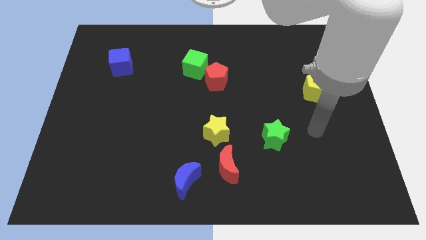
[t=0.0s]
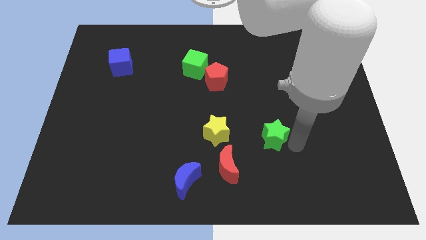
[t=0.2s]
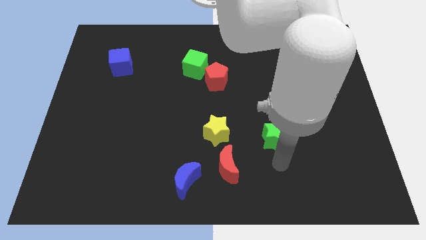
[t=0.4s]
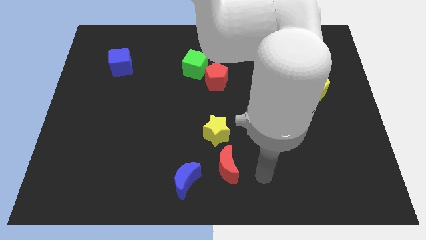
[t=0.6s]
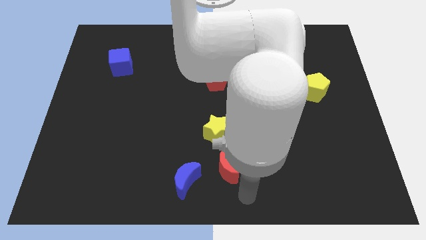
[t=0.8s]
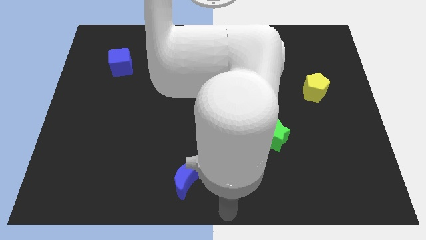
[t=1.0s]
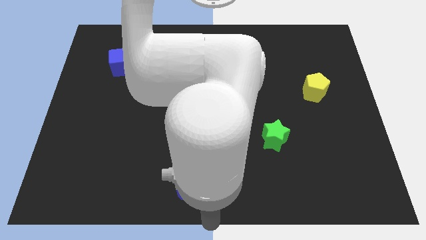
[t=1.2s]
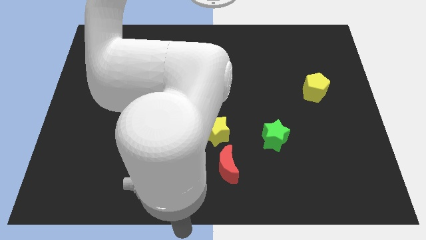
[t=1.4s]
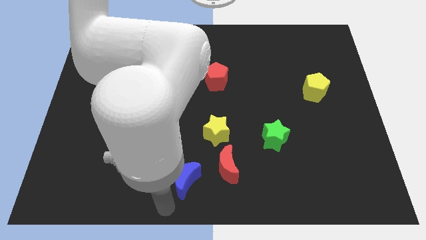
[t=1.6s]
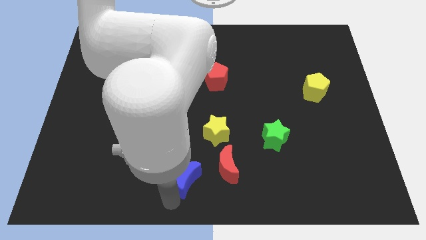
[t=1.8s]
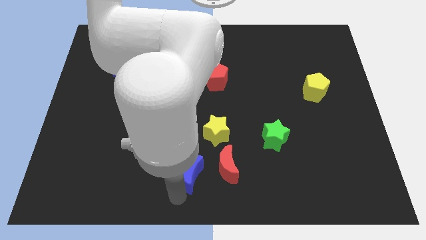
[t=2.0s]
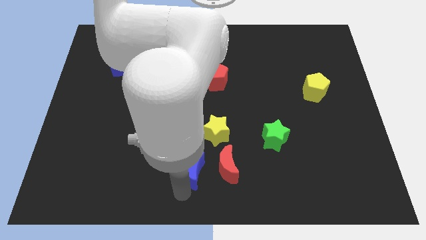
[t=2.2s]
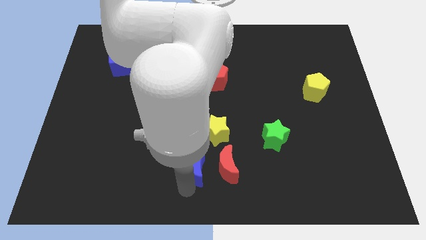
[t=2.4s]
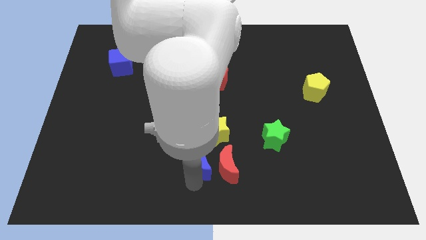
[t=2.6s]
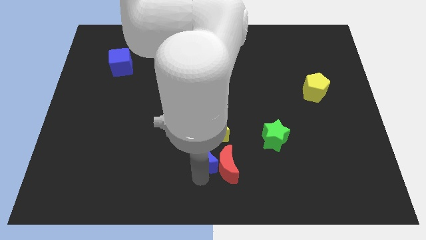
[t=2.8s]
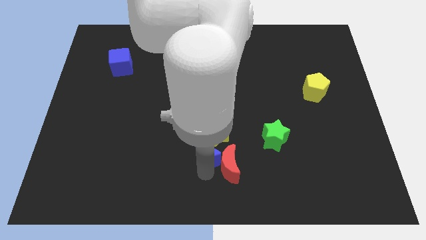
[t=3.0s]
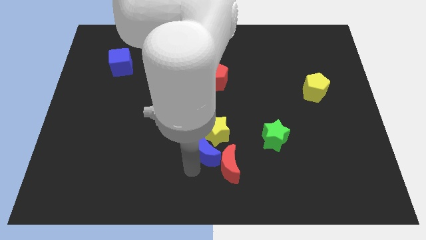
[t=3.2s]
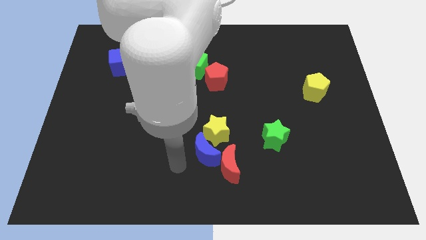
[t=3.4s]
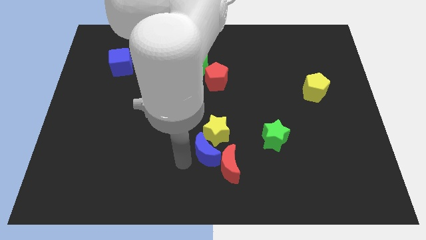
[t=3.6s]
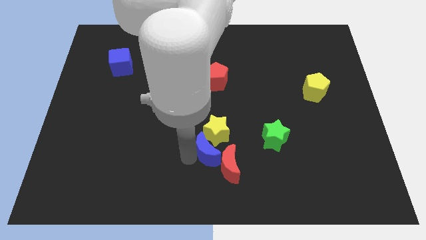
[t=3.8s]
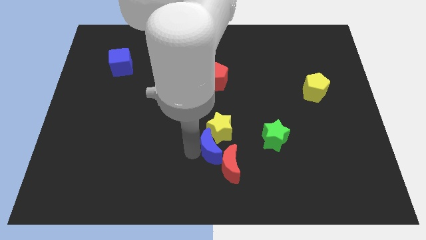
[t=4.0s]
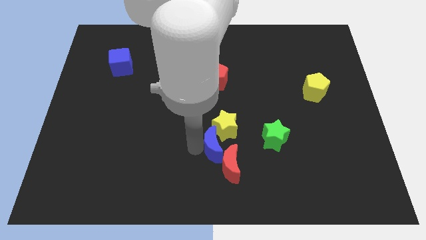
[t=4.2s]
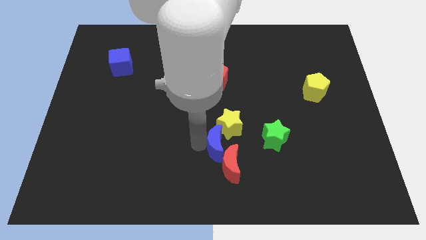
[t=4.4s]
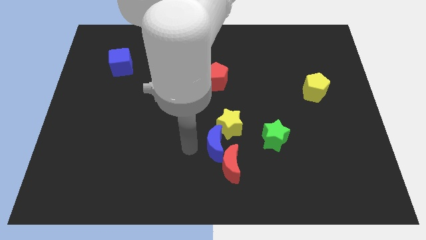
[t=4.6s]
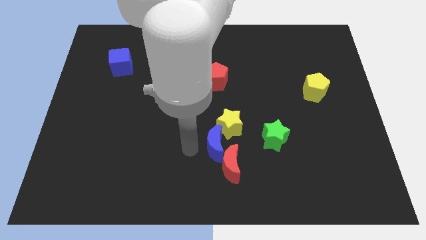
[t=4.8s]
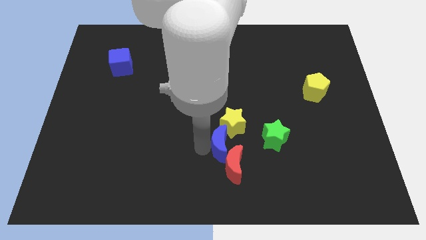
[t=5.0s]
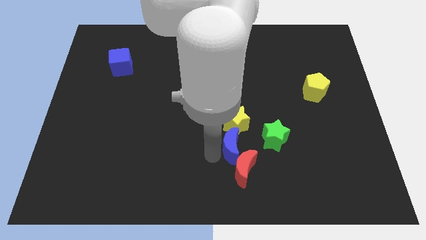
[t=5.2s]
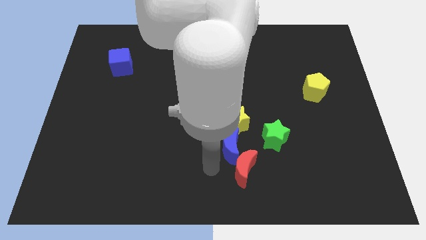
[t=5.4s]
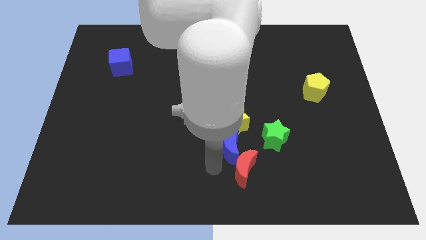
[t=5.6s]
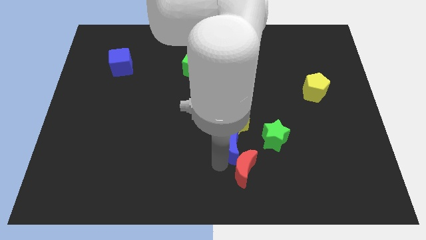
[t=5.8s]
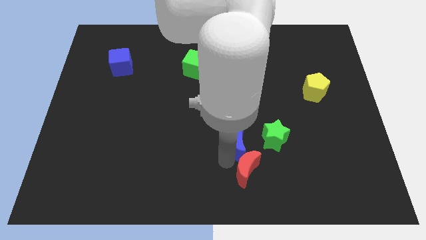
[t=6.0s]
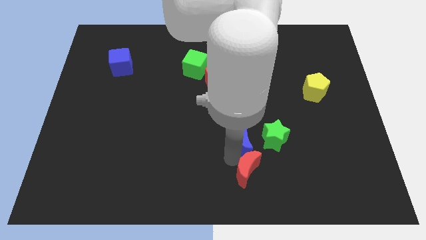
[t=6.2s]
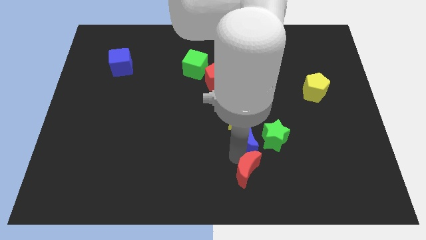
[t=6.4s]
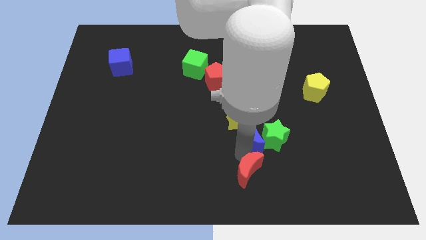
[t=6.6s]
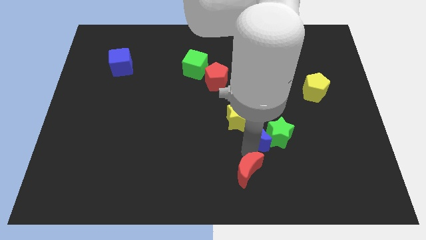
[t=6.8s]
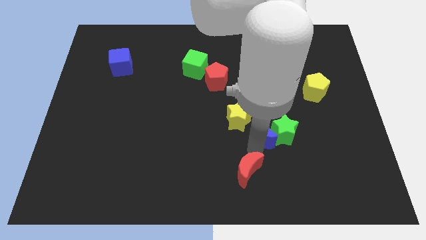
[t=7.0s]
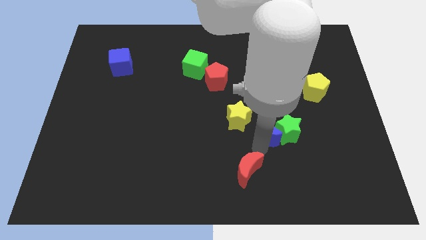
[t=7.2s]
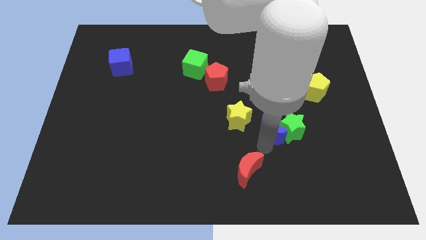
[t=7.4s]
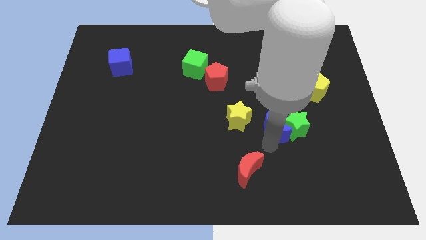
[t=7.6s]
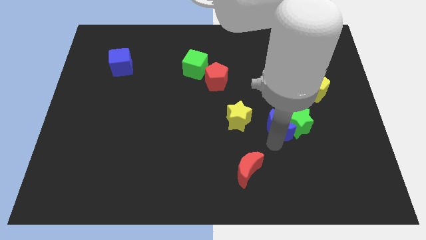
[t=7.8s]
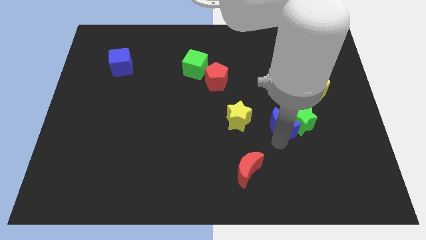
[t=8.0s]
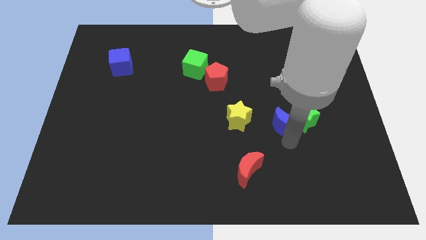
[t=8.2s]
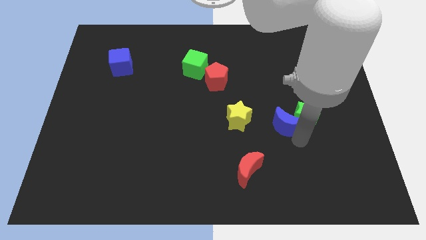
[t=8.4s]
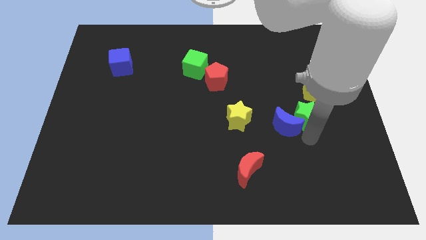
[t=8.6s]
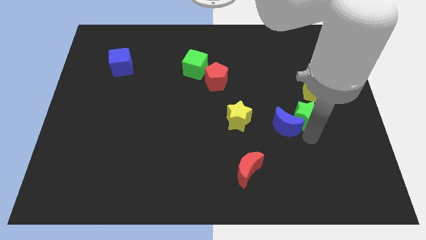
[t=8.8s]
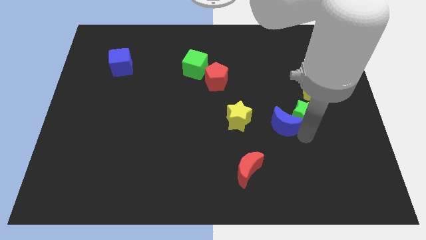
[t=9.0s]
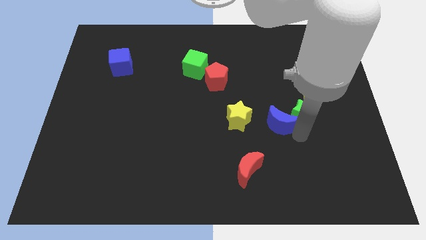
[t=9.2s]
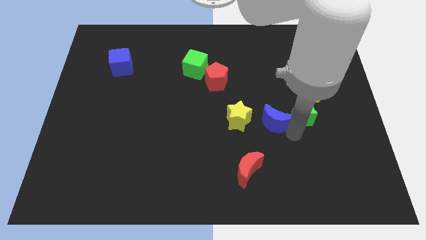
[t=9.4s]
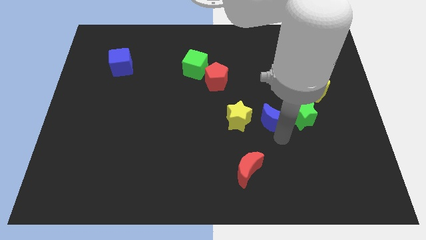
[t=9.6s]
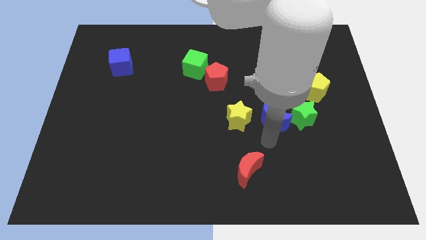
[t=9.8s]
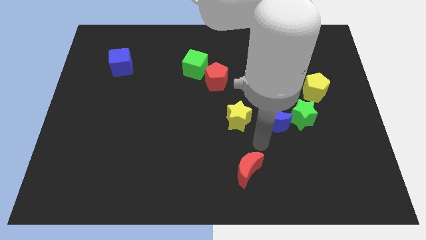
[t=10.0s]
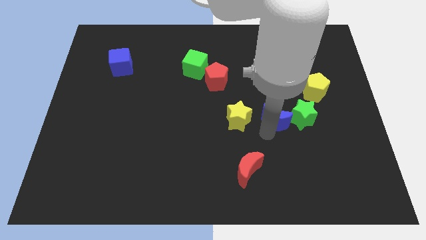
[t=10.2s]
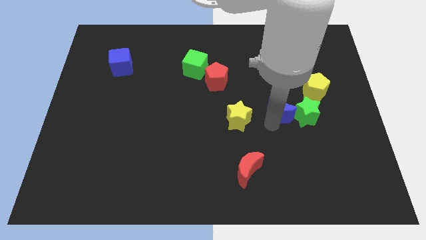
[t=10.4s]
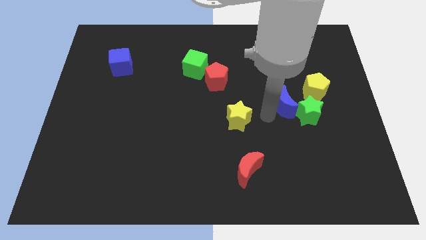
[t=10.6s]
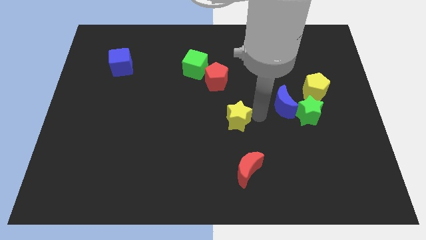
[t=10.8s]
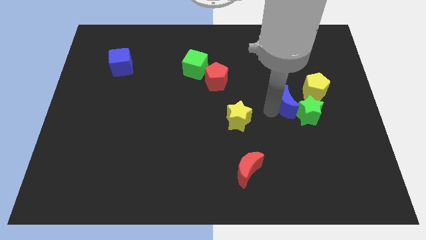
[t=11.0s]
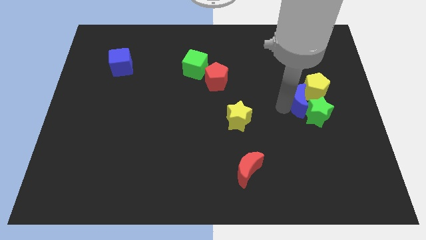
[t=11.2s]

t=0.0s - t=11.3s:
put the blue moon close to the yellow pentagon

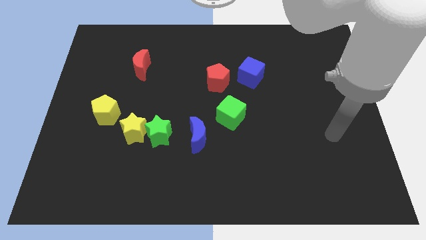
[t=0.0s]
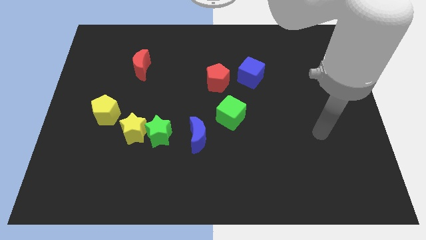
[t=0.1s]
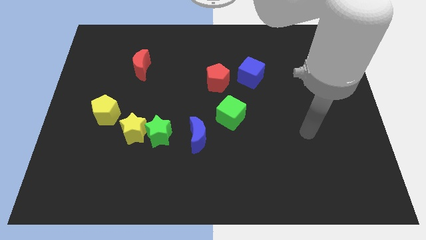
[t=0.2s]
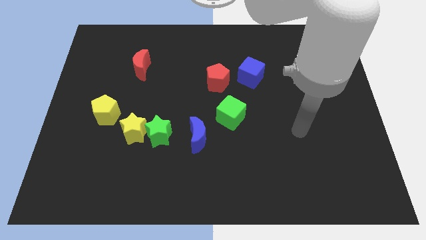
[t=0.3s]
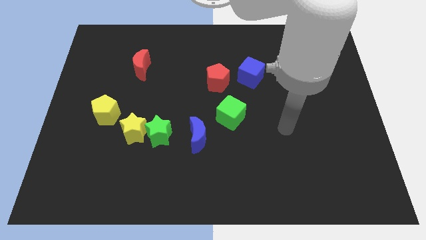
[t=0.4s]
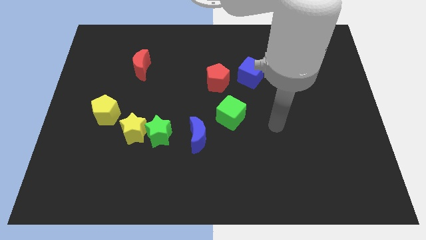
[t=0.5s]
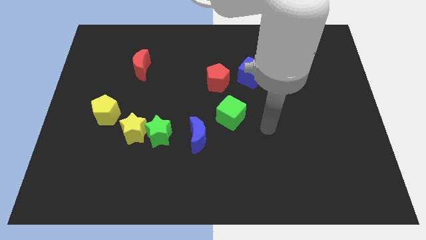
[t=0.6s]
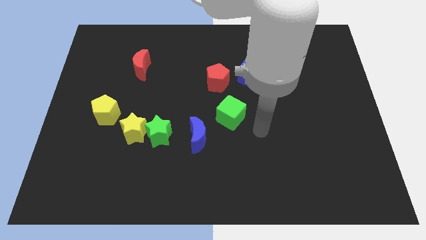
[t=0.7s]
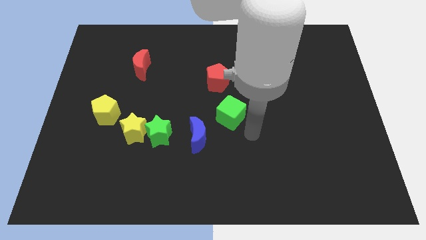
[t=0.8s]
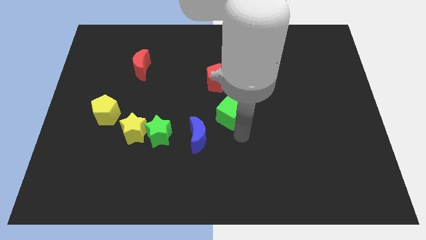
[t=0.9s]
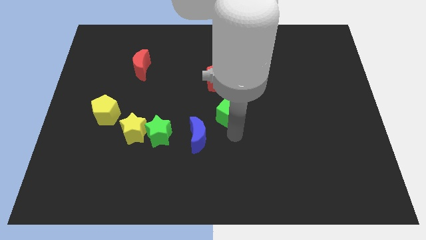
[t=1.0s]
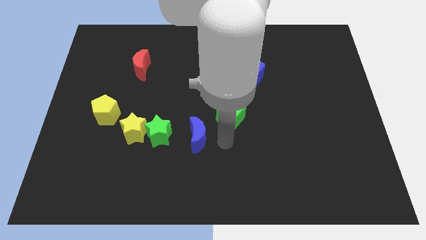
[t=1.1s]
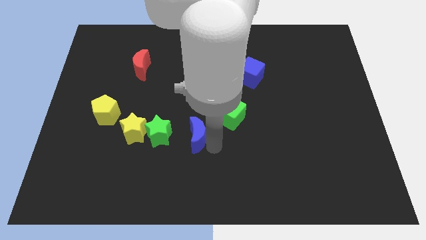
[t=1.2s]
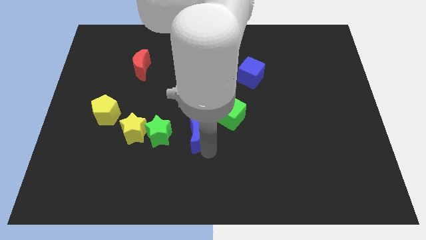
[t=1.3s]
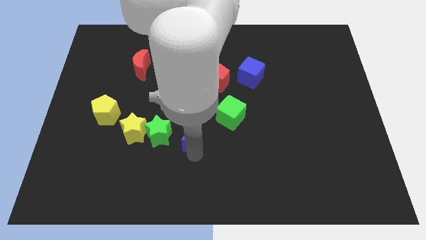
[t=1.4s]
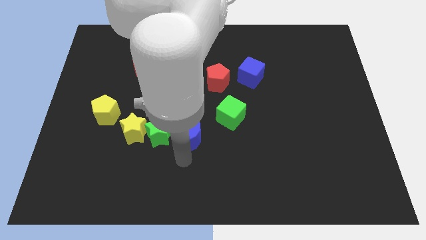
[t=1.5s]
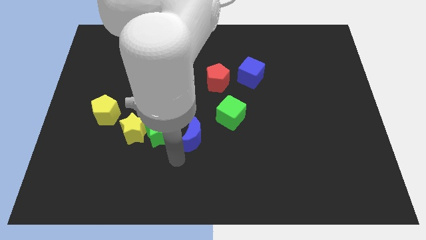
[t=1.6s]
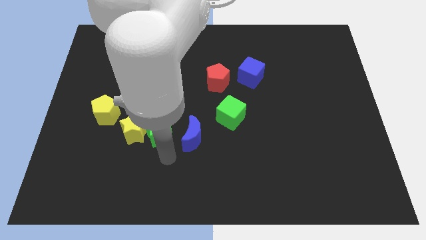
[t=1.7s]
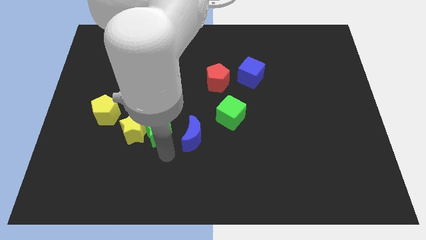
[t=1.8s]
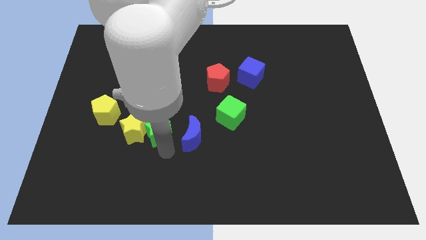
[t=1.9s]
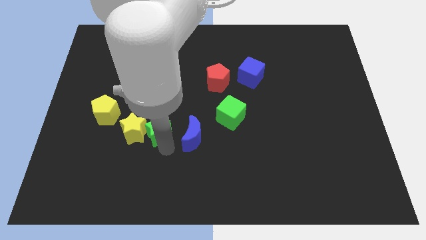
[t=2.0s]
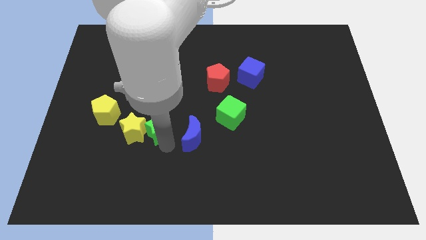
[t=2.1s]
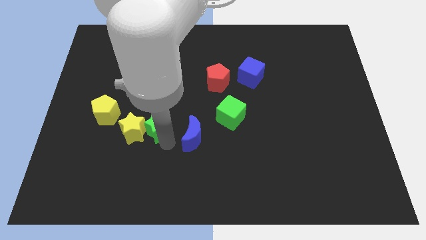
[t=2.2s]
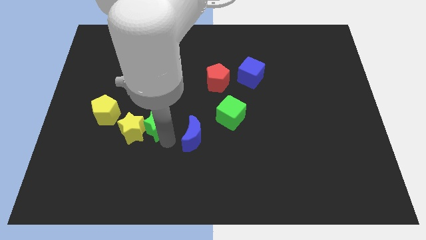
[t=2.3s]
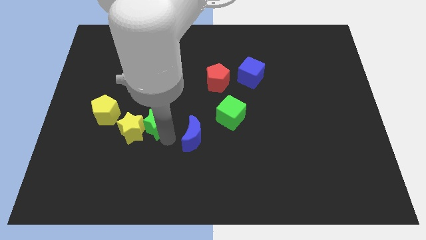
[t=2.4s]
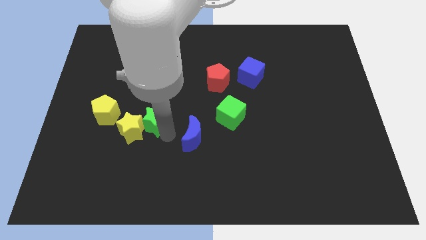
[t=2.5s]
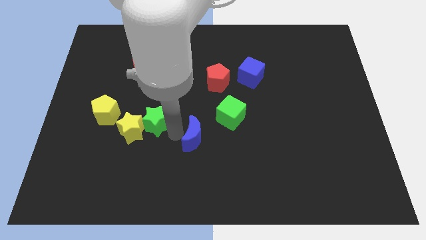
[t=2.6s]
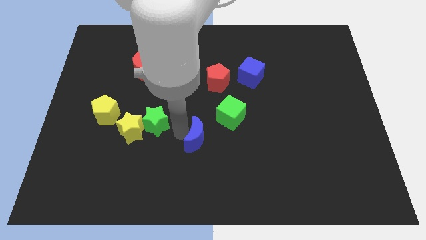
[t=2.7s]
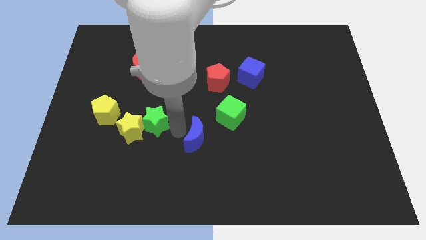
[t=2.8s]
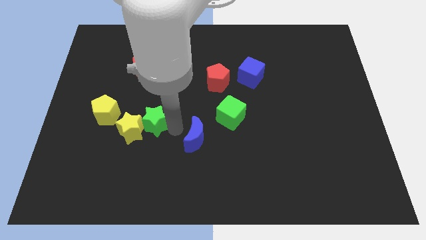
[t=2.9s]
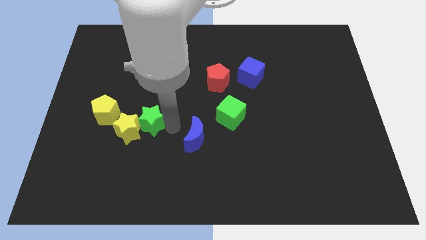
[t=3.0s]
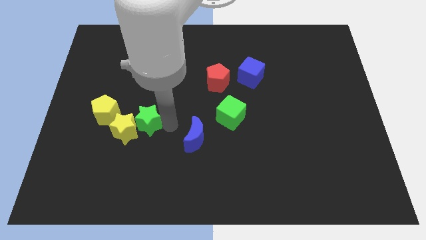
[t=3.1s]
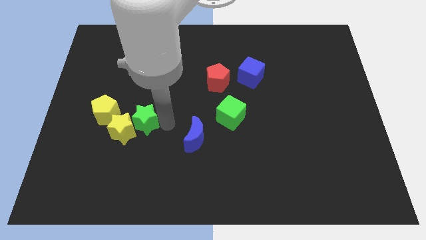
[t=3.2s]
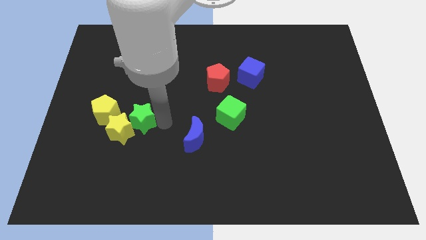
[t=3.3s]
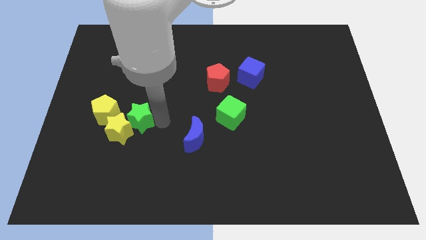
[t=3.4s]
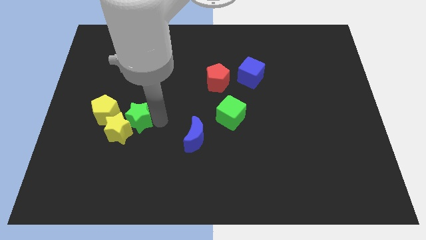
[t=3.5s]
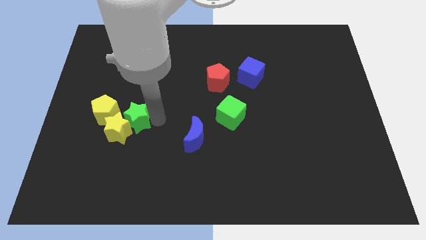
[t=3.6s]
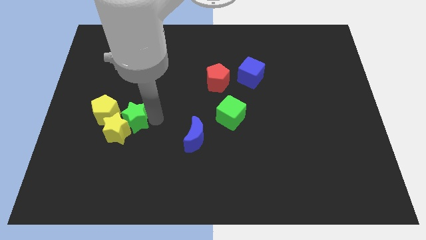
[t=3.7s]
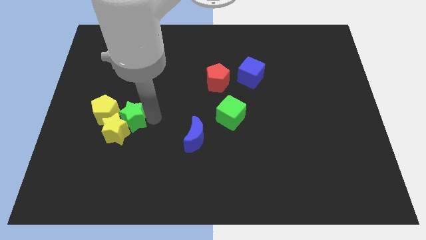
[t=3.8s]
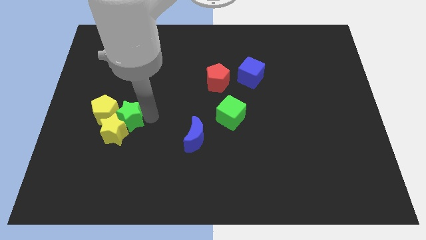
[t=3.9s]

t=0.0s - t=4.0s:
move the green star next to the yellow pentagon
